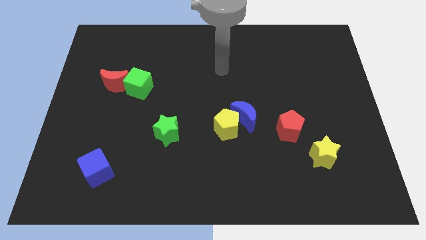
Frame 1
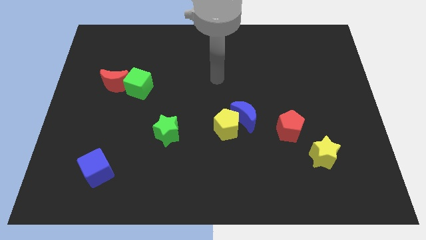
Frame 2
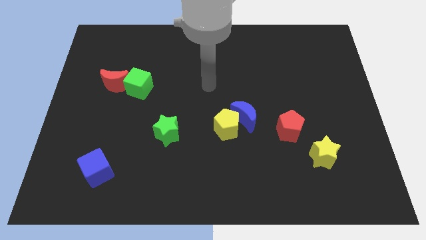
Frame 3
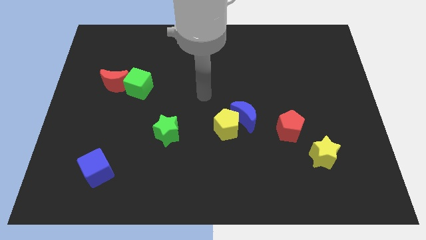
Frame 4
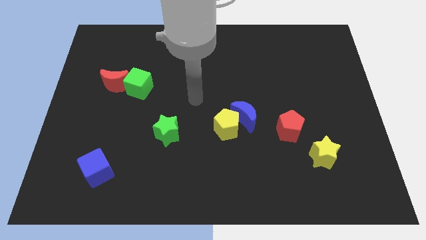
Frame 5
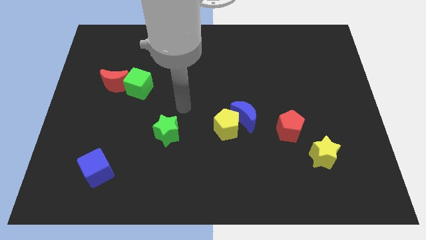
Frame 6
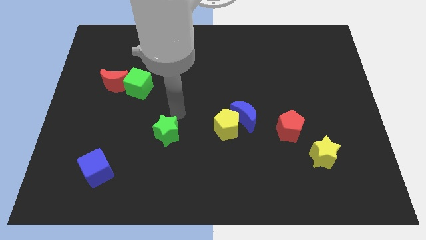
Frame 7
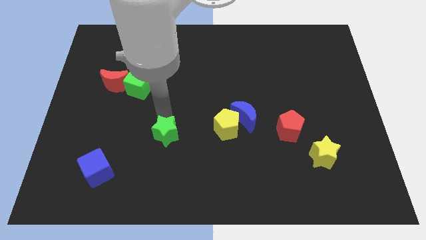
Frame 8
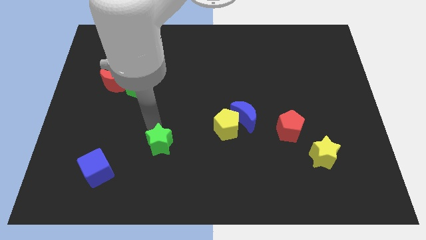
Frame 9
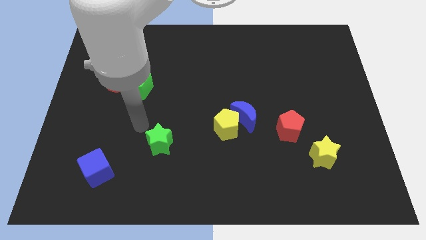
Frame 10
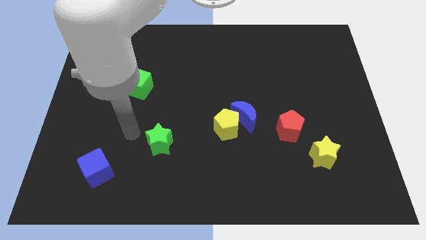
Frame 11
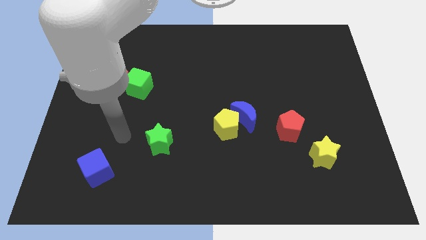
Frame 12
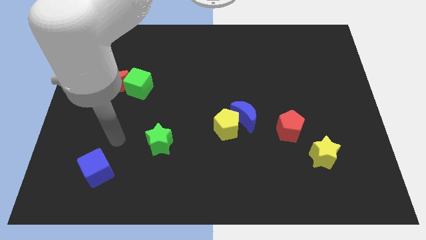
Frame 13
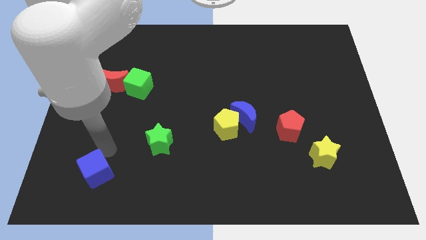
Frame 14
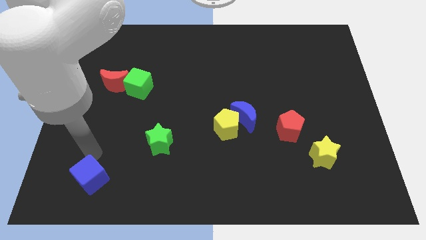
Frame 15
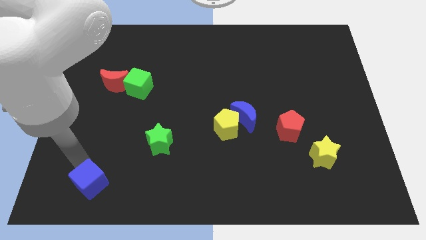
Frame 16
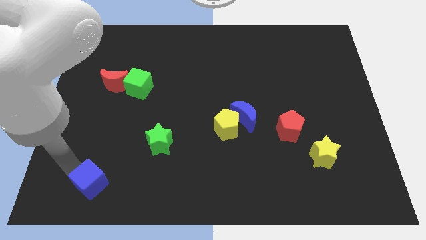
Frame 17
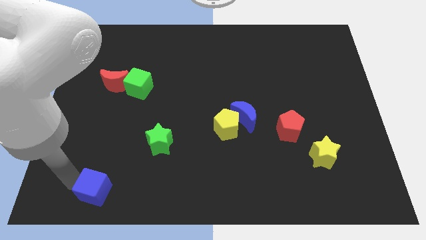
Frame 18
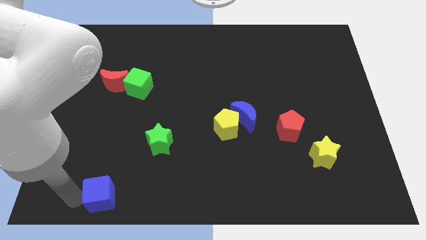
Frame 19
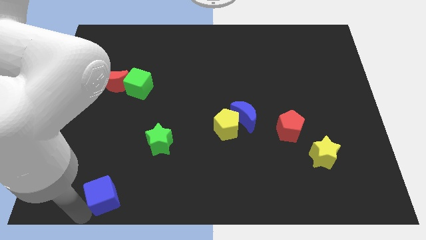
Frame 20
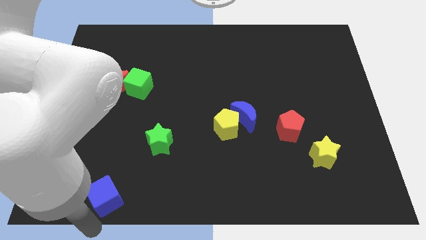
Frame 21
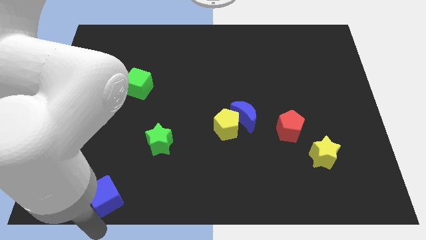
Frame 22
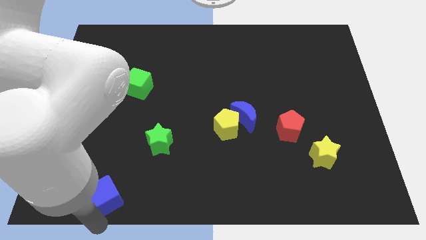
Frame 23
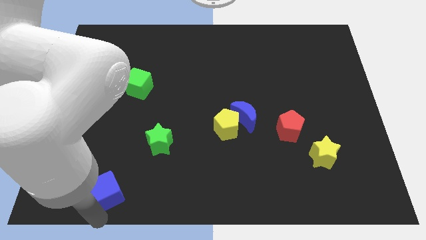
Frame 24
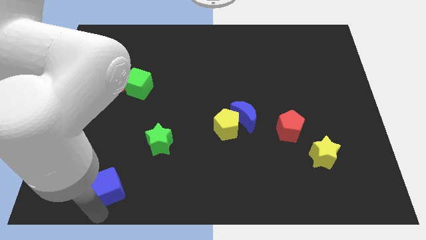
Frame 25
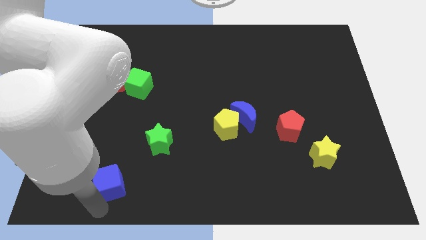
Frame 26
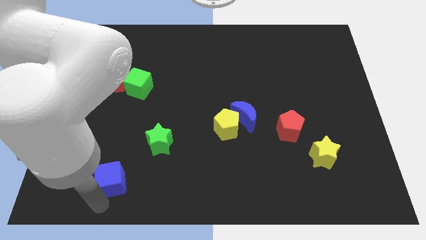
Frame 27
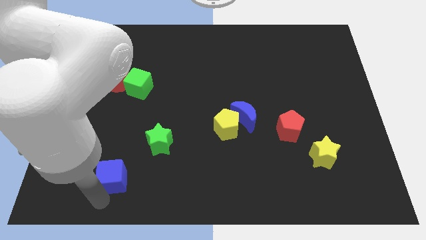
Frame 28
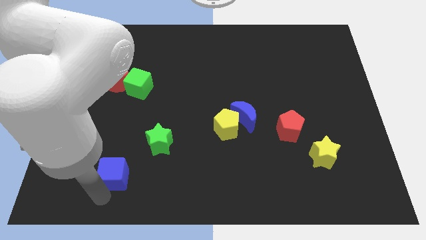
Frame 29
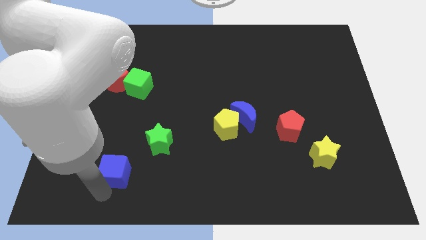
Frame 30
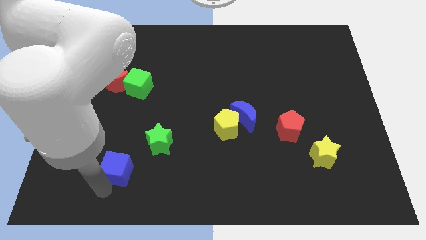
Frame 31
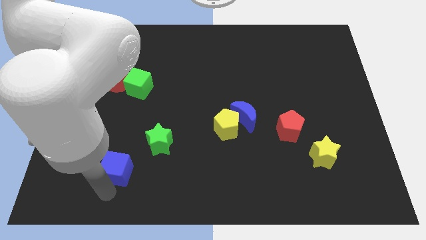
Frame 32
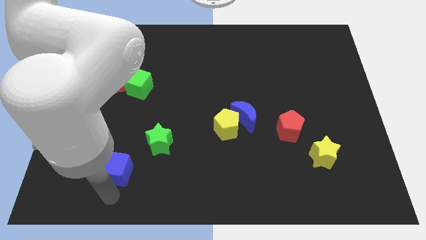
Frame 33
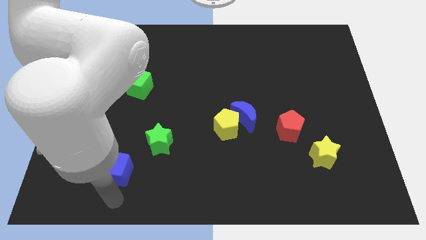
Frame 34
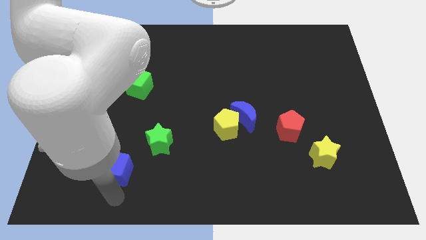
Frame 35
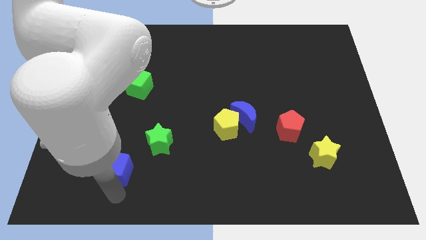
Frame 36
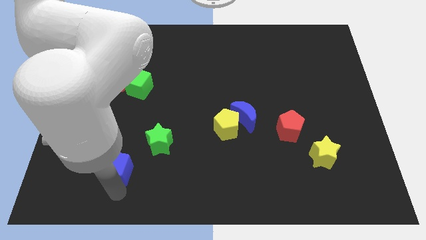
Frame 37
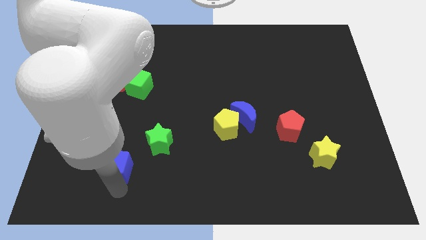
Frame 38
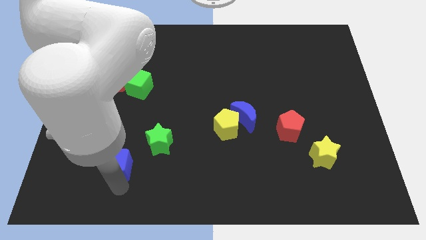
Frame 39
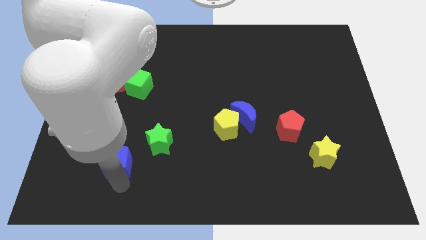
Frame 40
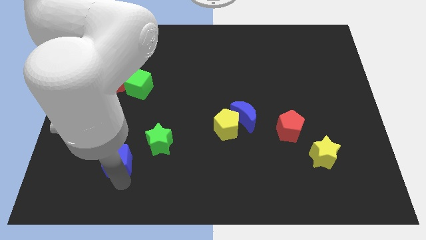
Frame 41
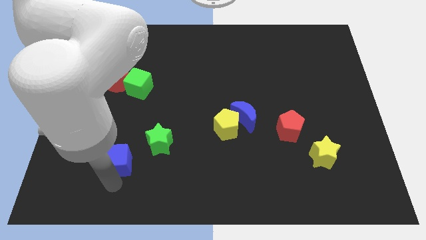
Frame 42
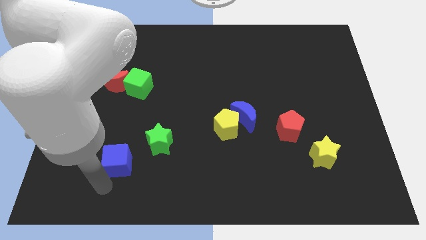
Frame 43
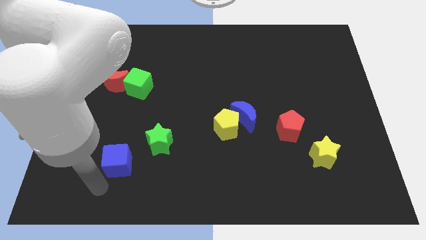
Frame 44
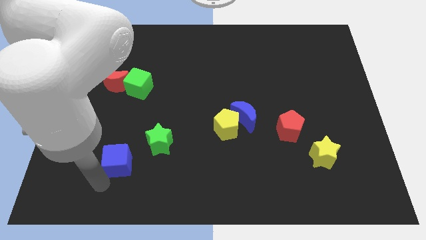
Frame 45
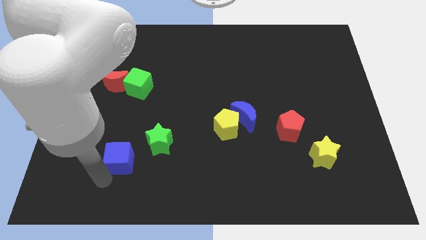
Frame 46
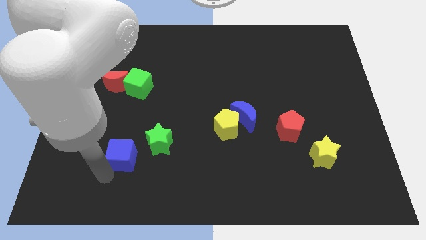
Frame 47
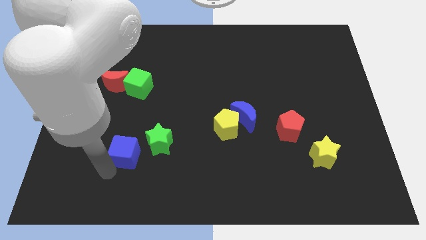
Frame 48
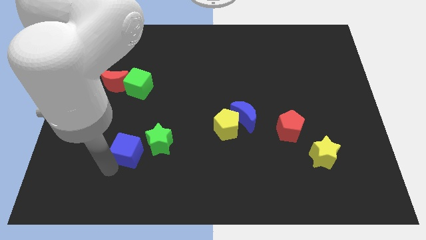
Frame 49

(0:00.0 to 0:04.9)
slightly slide the blue cube upwards and to the right

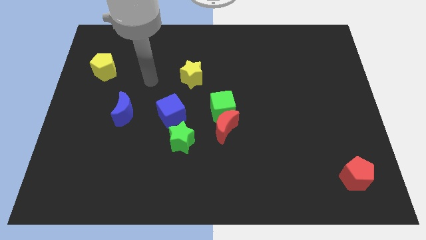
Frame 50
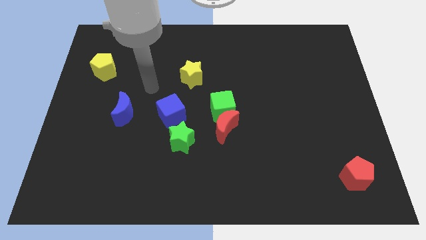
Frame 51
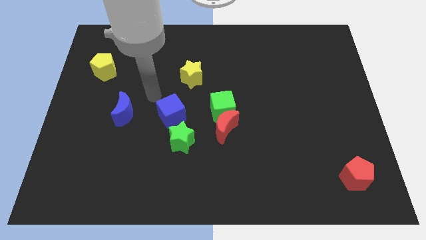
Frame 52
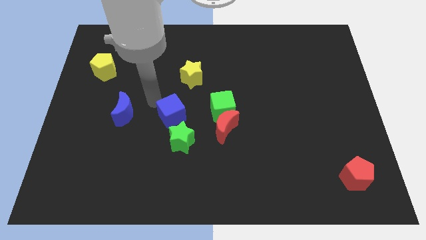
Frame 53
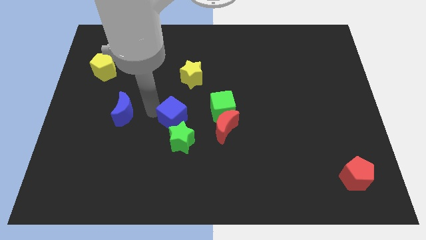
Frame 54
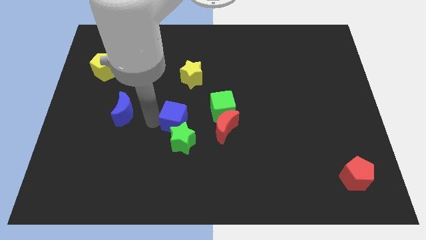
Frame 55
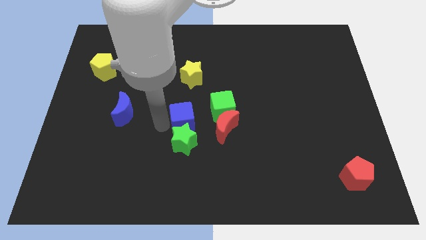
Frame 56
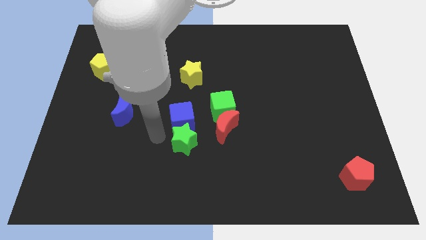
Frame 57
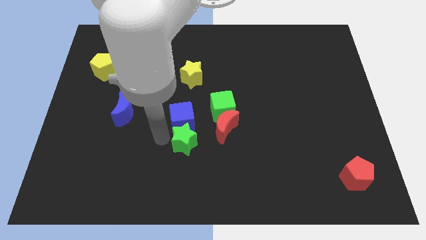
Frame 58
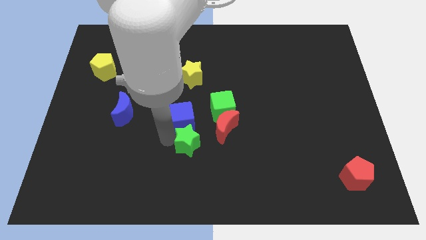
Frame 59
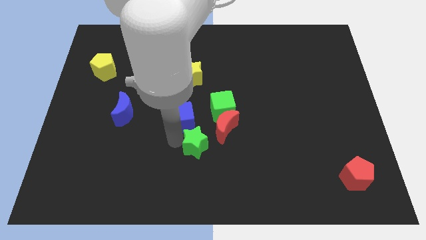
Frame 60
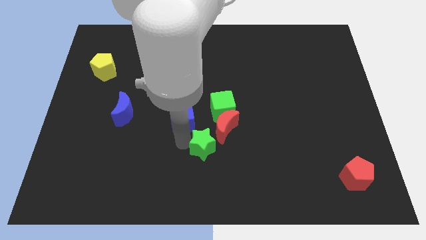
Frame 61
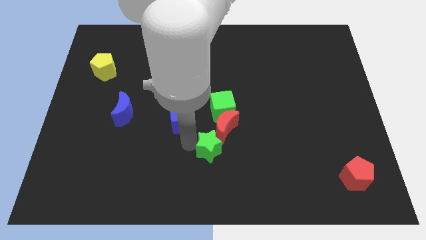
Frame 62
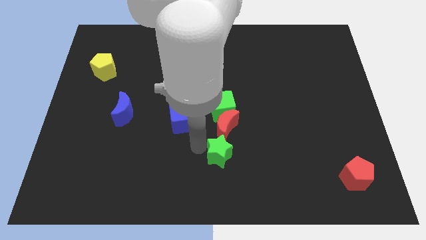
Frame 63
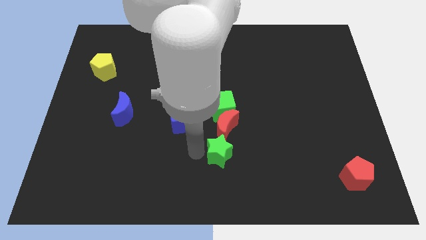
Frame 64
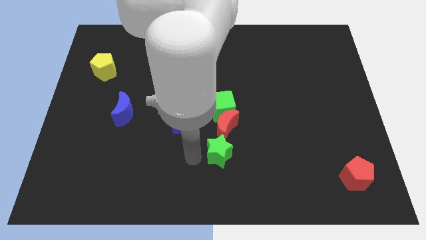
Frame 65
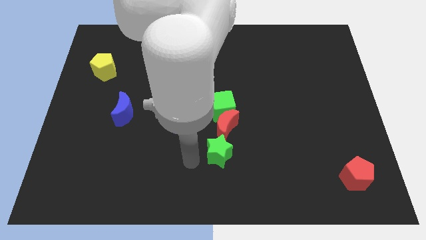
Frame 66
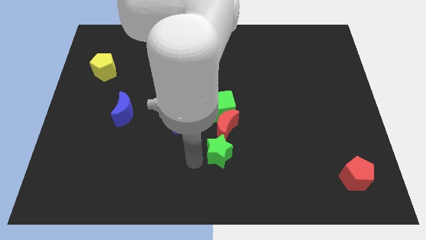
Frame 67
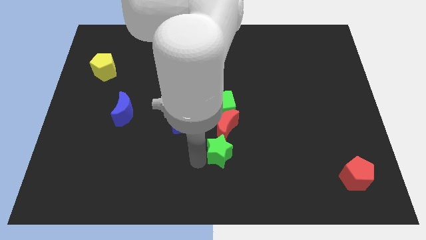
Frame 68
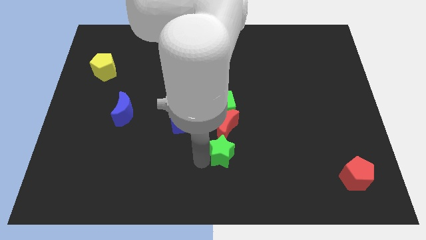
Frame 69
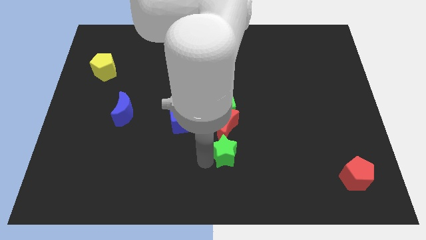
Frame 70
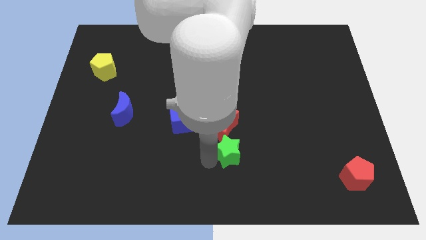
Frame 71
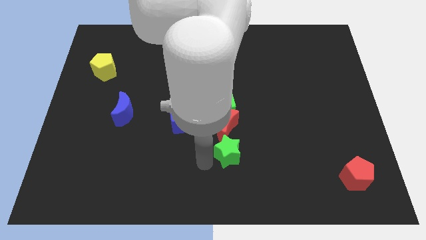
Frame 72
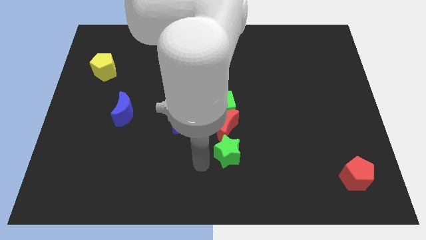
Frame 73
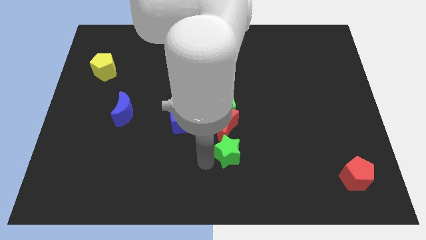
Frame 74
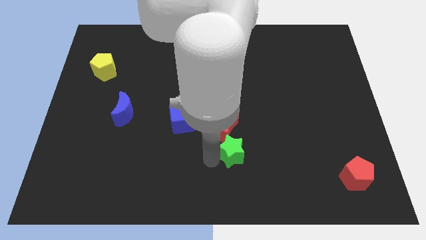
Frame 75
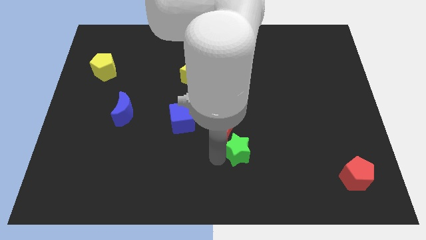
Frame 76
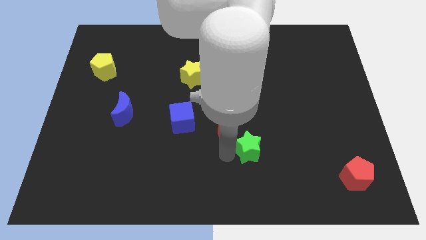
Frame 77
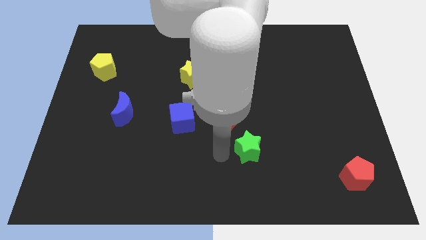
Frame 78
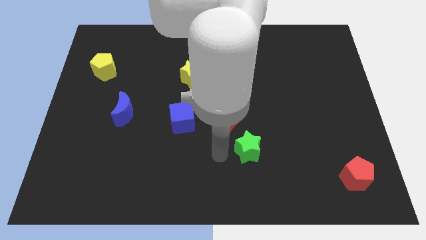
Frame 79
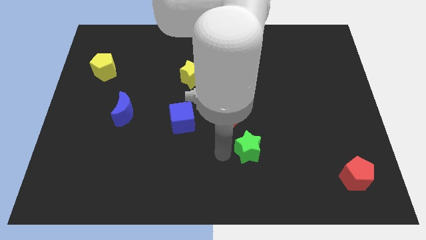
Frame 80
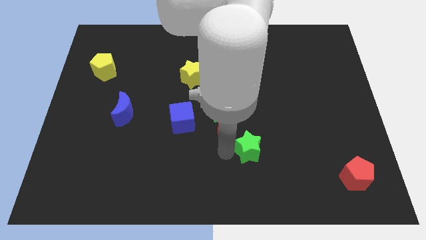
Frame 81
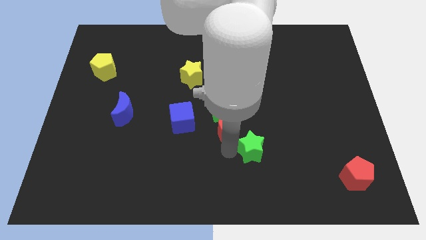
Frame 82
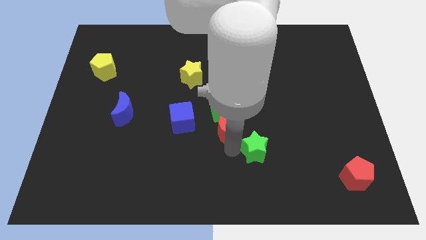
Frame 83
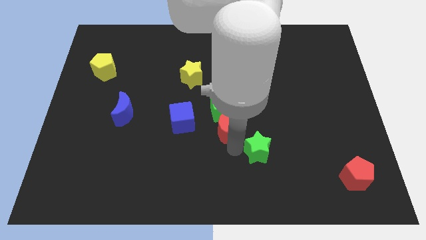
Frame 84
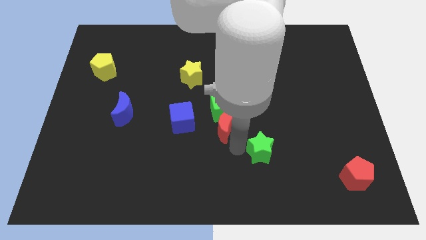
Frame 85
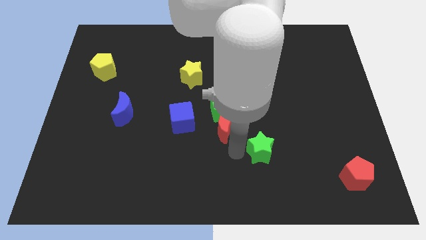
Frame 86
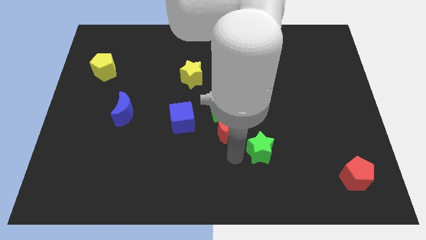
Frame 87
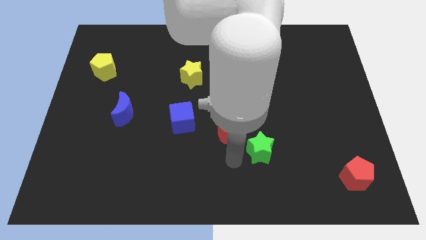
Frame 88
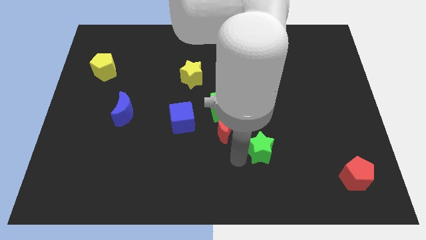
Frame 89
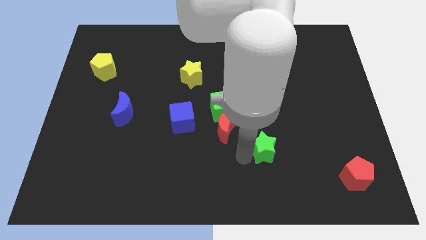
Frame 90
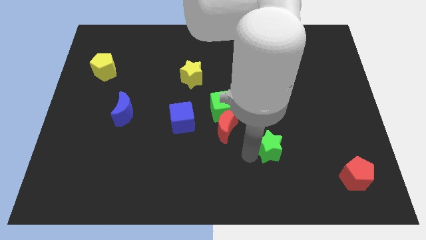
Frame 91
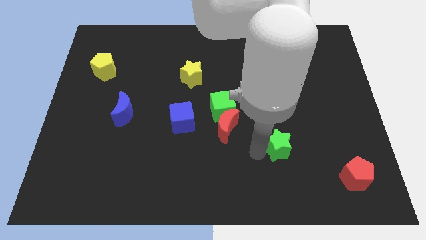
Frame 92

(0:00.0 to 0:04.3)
move the green star right
